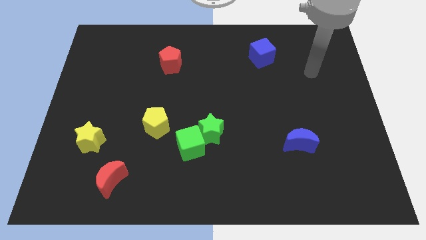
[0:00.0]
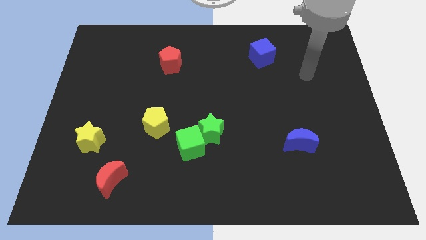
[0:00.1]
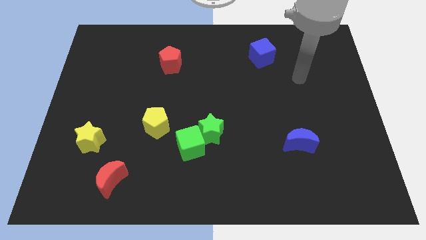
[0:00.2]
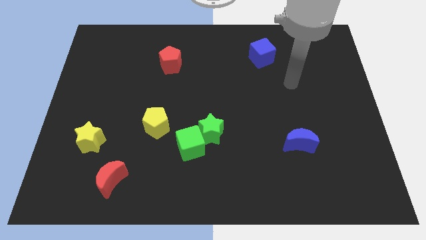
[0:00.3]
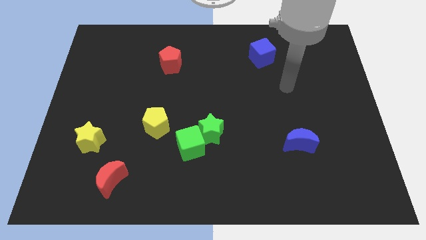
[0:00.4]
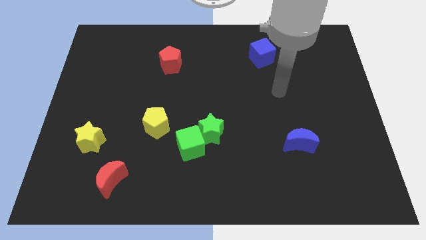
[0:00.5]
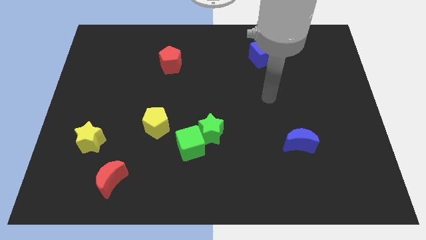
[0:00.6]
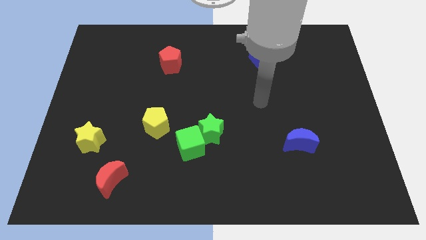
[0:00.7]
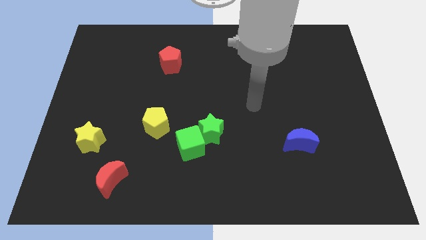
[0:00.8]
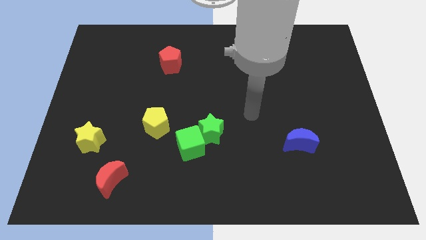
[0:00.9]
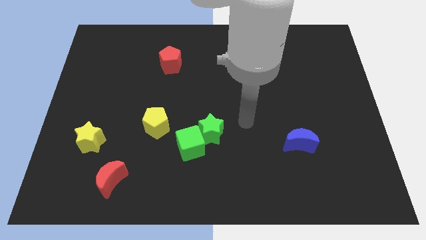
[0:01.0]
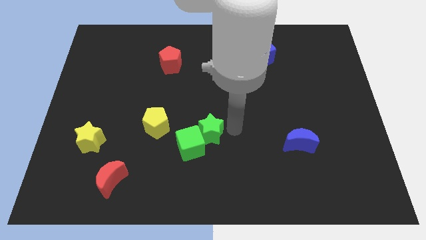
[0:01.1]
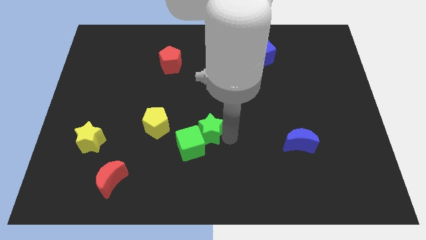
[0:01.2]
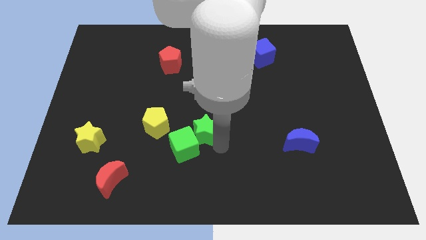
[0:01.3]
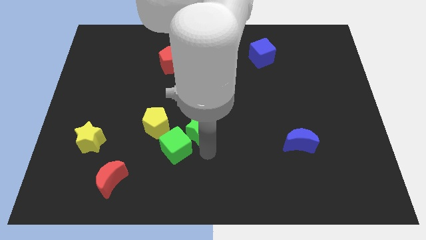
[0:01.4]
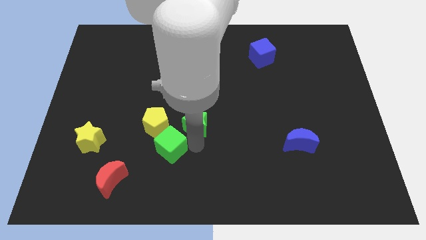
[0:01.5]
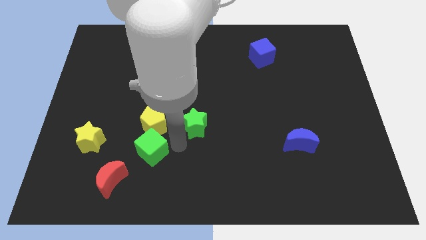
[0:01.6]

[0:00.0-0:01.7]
pull the green star apart from the green cube

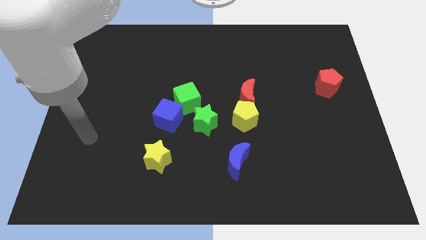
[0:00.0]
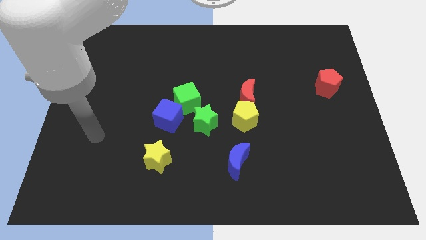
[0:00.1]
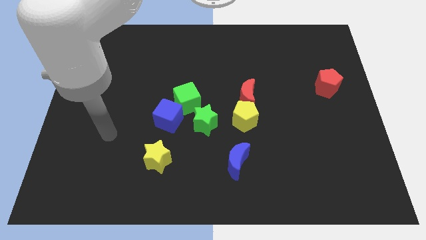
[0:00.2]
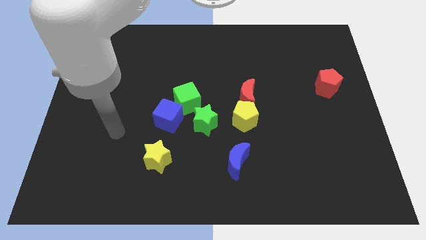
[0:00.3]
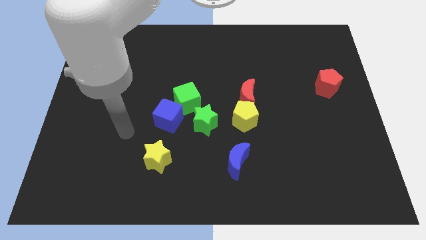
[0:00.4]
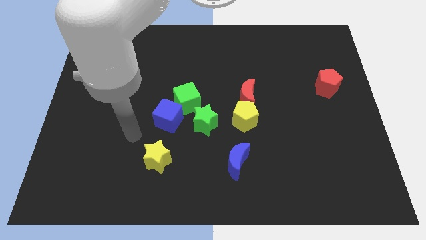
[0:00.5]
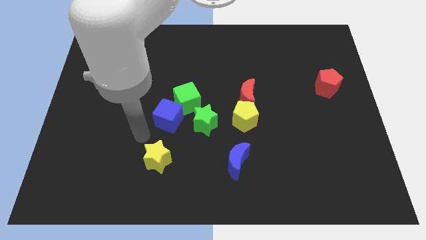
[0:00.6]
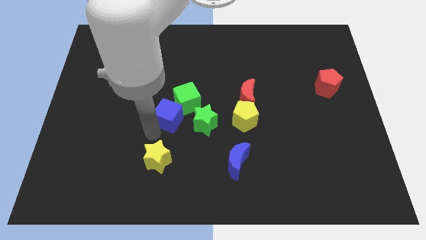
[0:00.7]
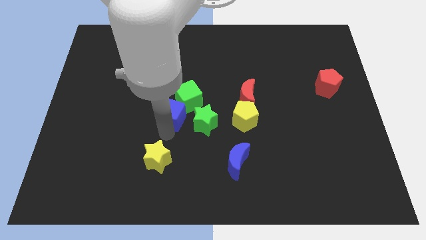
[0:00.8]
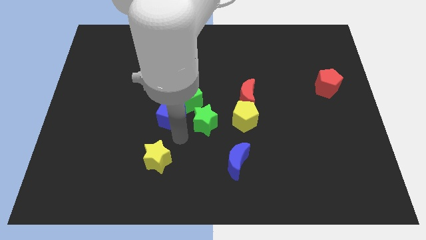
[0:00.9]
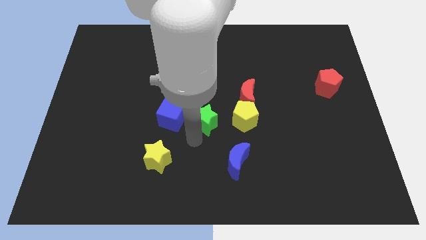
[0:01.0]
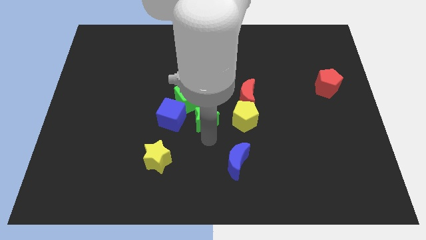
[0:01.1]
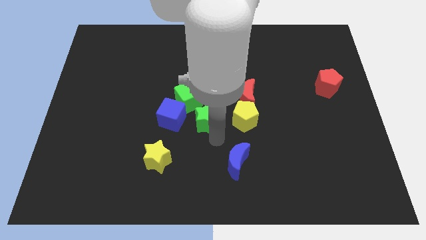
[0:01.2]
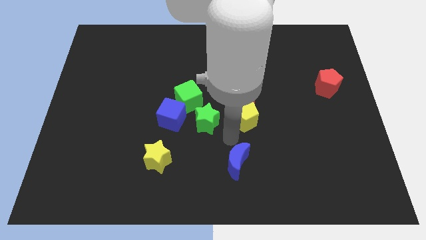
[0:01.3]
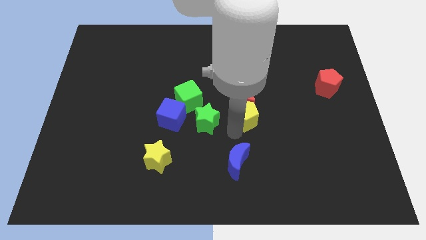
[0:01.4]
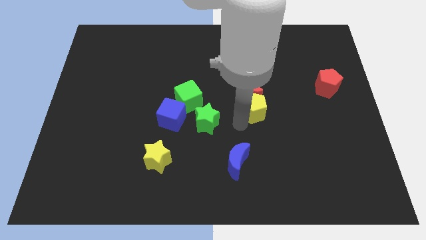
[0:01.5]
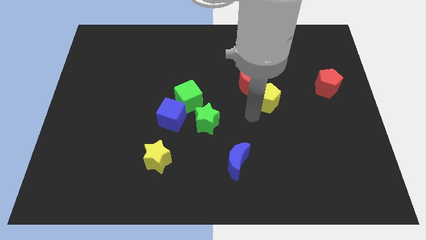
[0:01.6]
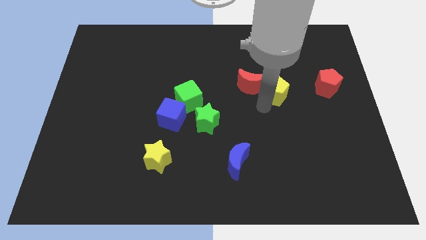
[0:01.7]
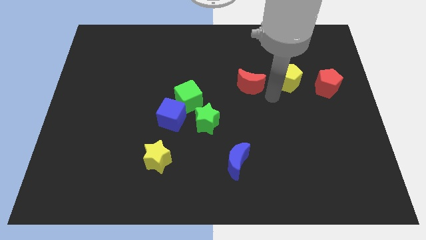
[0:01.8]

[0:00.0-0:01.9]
pull the red moon apart from the yellow pentagon

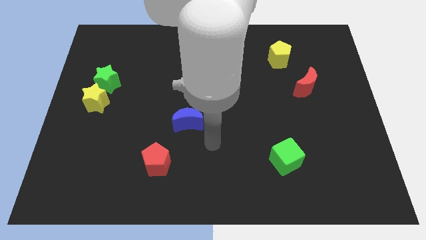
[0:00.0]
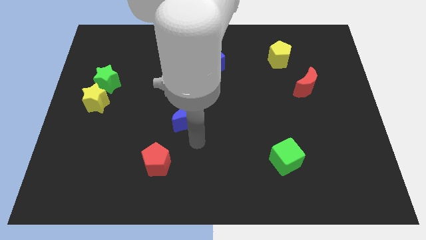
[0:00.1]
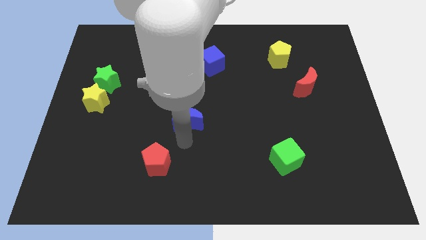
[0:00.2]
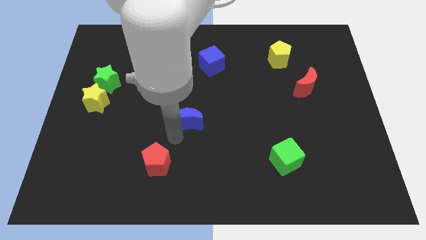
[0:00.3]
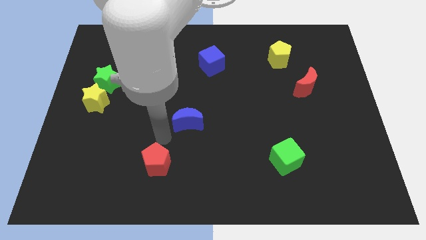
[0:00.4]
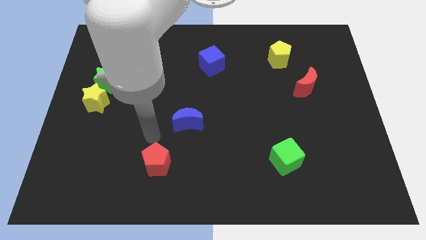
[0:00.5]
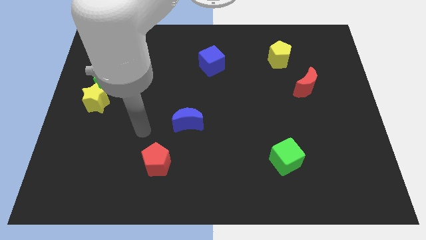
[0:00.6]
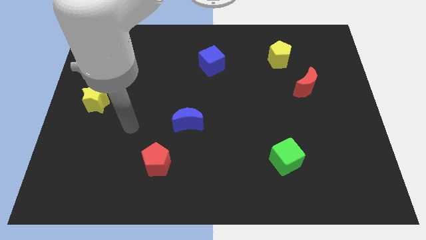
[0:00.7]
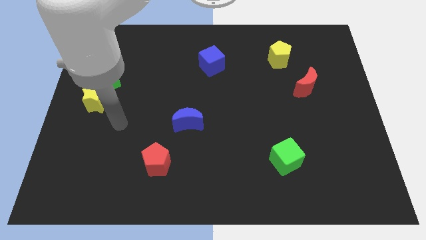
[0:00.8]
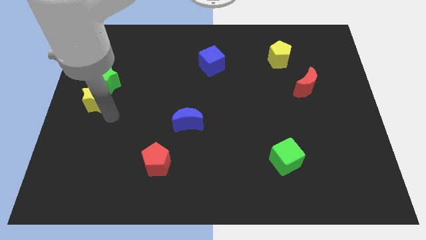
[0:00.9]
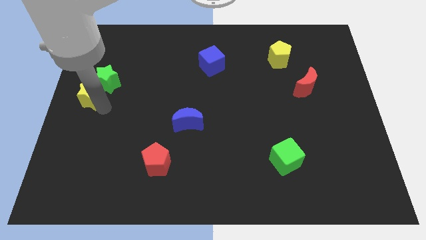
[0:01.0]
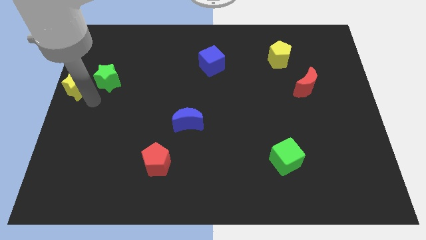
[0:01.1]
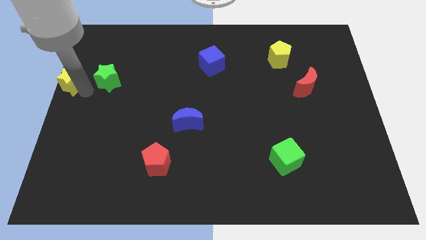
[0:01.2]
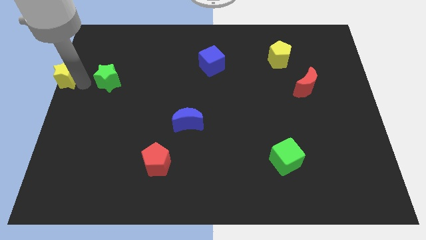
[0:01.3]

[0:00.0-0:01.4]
separate the green star from the yellow star

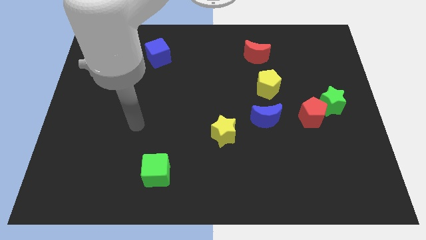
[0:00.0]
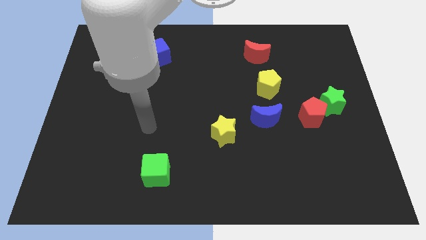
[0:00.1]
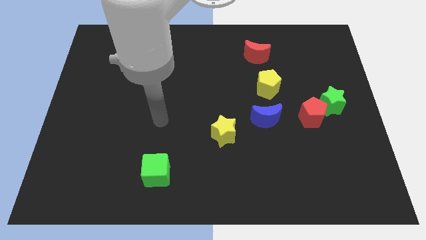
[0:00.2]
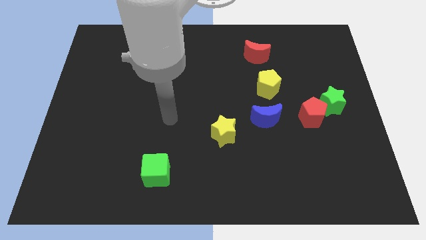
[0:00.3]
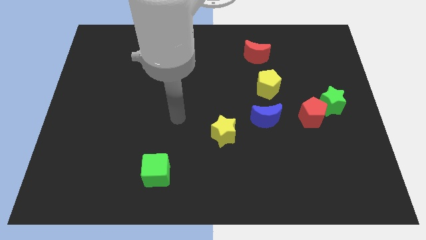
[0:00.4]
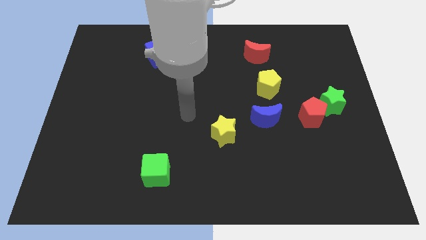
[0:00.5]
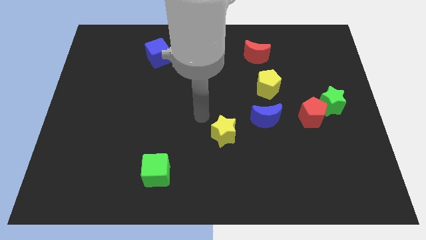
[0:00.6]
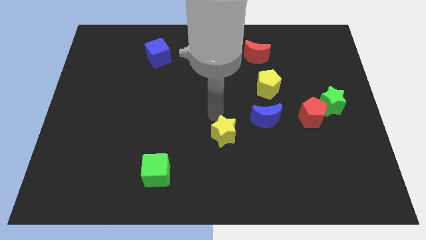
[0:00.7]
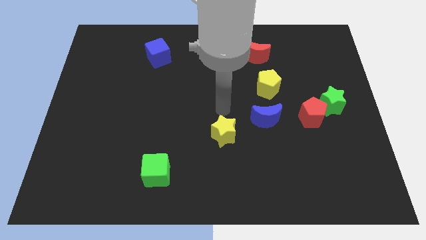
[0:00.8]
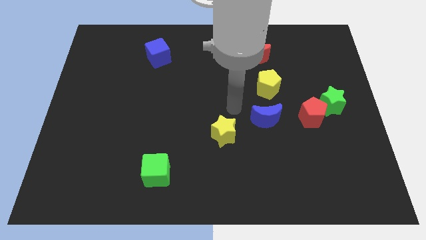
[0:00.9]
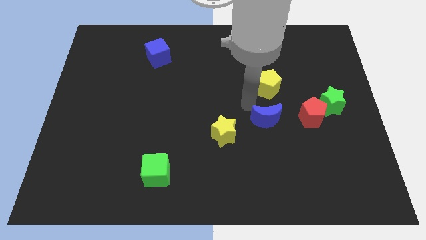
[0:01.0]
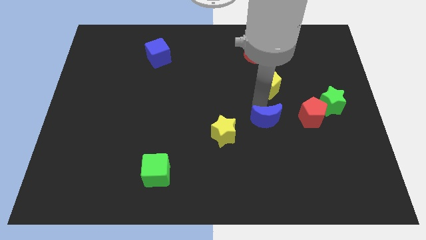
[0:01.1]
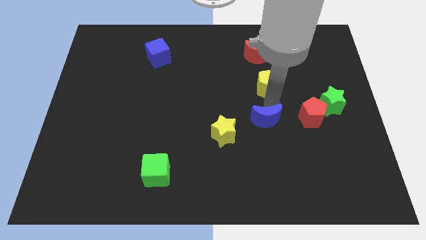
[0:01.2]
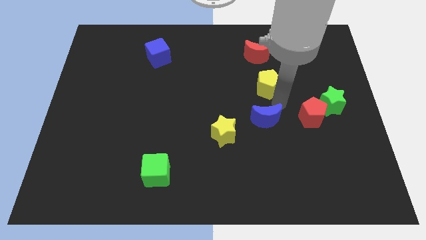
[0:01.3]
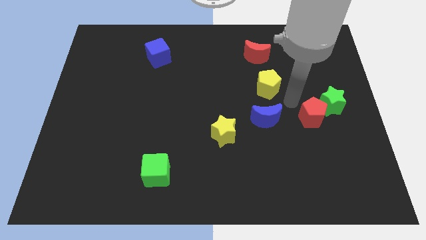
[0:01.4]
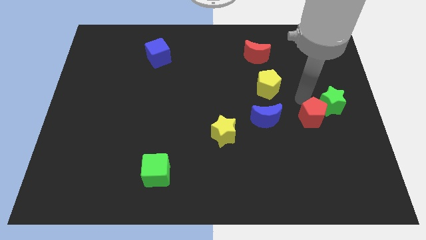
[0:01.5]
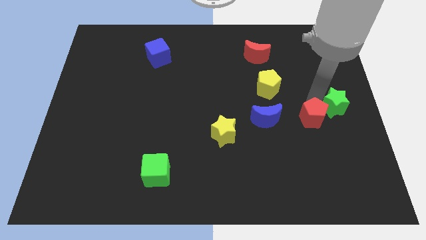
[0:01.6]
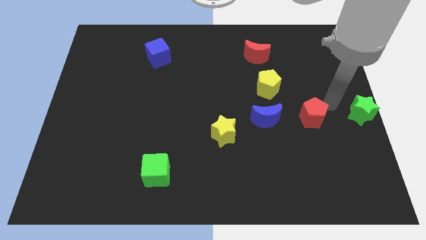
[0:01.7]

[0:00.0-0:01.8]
move the red pentagon away from the green star

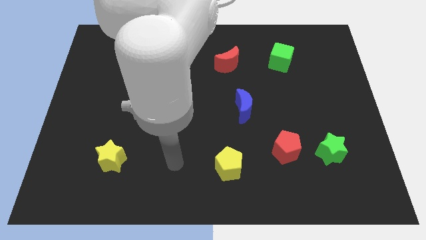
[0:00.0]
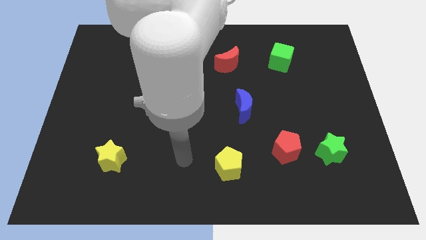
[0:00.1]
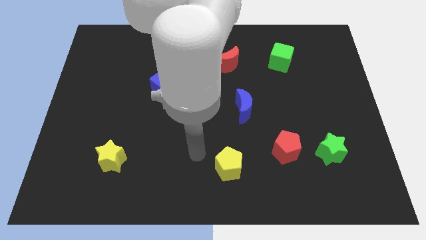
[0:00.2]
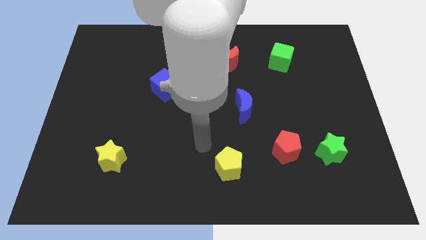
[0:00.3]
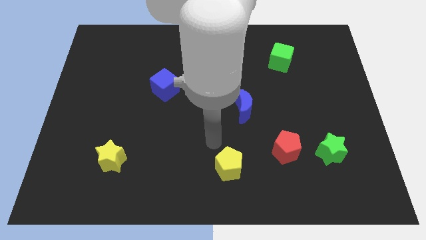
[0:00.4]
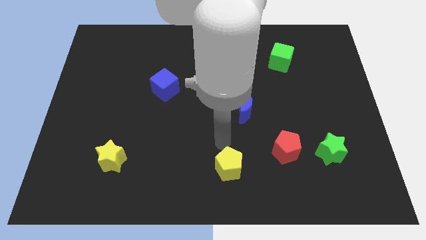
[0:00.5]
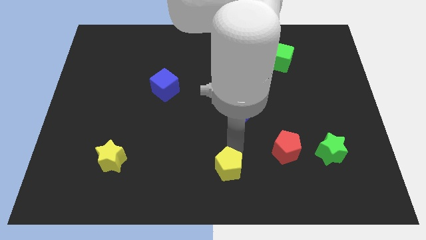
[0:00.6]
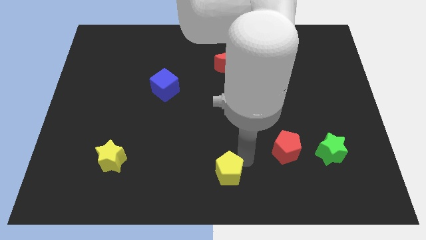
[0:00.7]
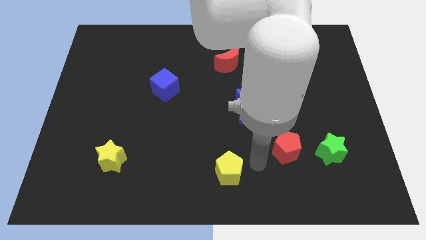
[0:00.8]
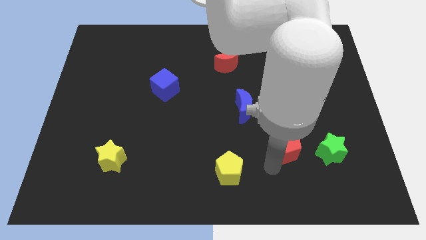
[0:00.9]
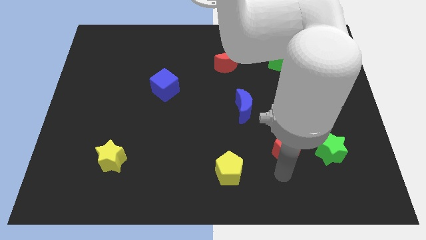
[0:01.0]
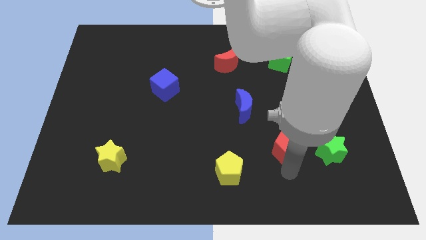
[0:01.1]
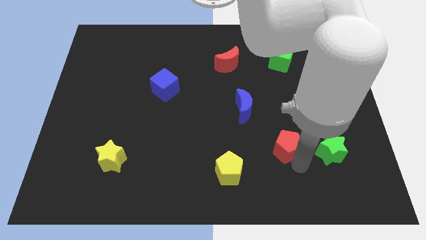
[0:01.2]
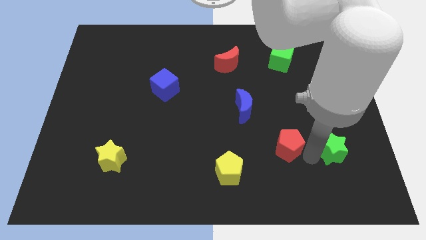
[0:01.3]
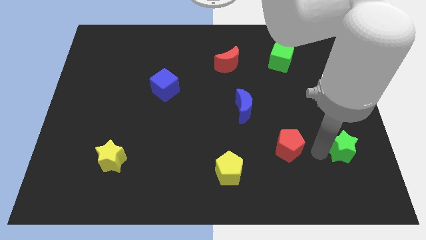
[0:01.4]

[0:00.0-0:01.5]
pull the red pentagon apart from the green star

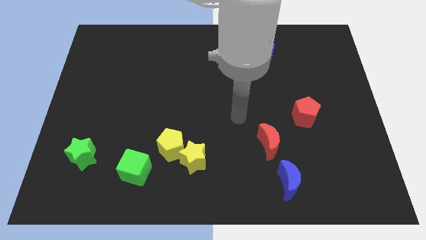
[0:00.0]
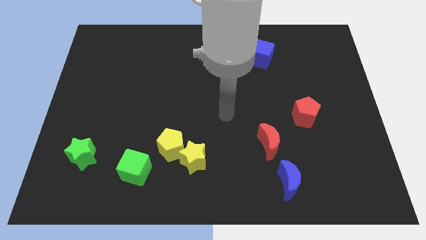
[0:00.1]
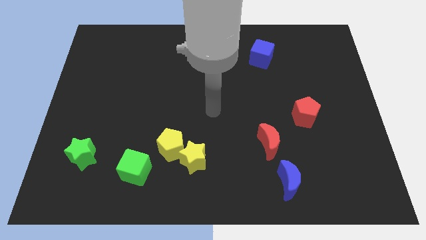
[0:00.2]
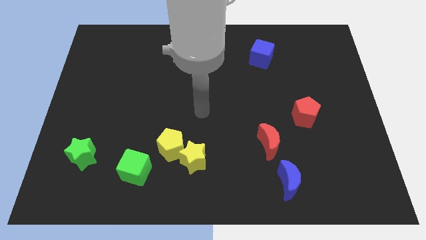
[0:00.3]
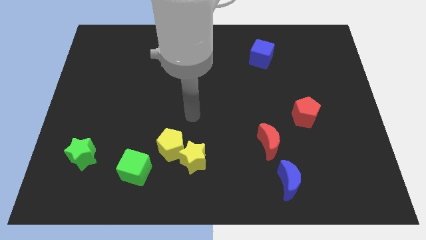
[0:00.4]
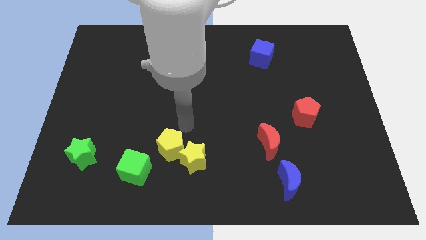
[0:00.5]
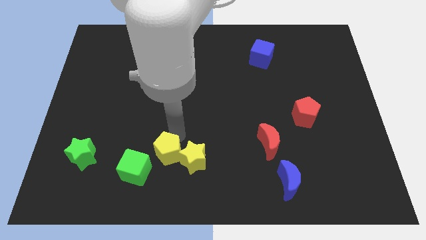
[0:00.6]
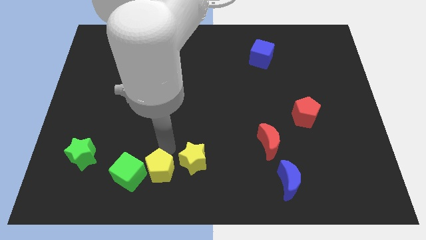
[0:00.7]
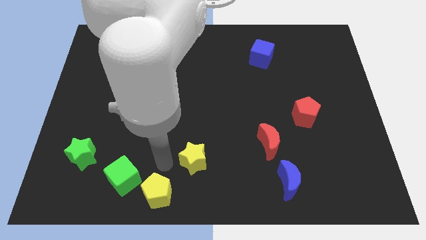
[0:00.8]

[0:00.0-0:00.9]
separate the yellow star from the yellow pentagon
